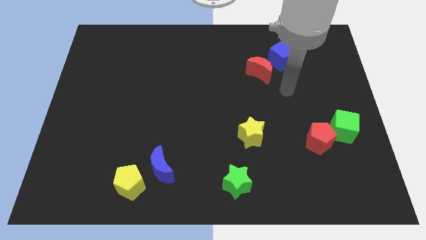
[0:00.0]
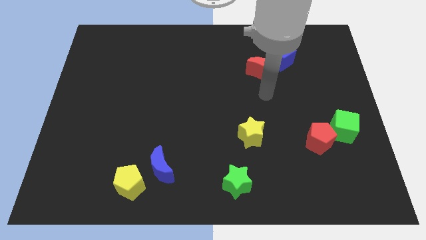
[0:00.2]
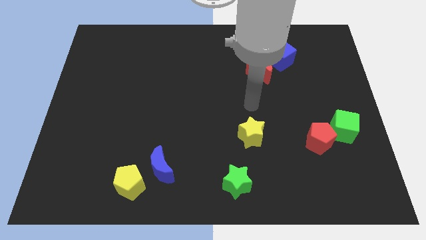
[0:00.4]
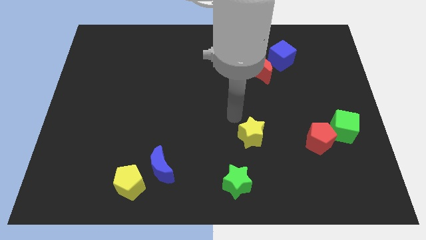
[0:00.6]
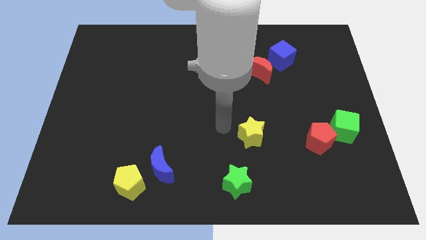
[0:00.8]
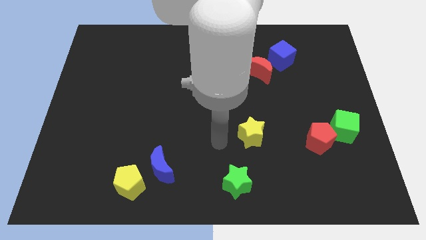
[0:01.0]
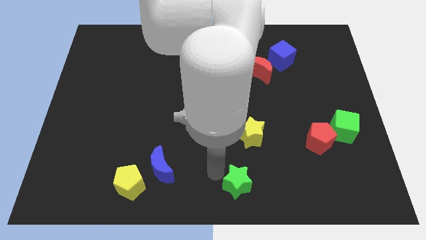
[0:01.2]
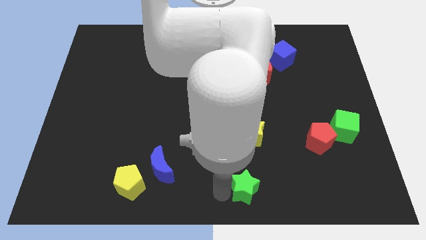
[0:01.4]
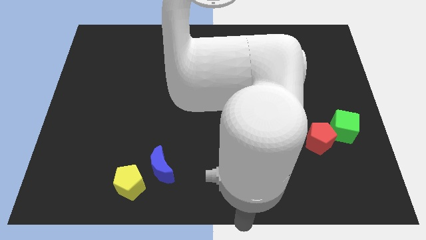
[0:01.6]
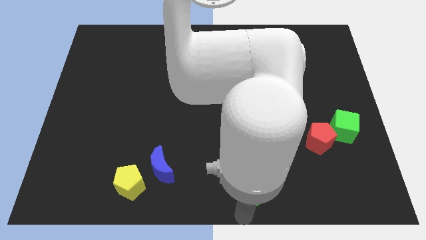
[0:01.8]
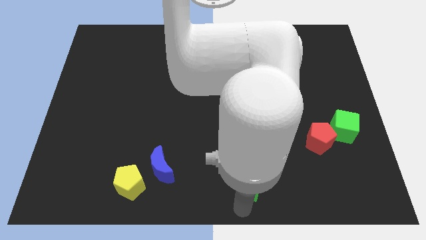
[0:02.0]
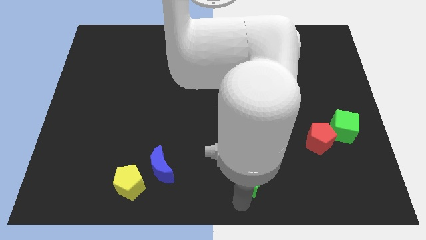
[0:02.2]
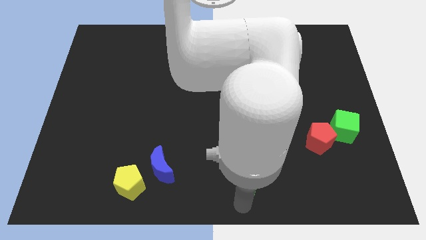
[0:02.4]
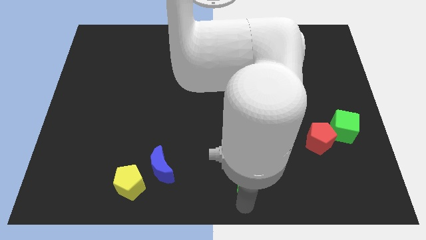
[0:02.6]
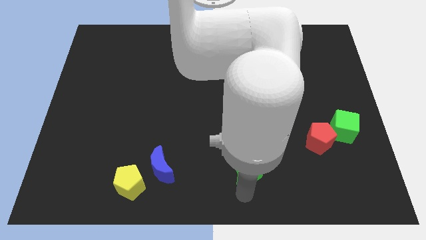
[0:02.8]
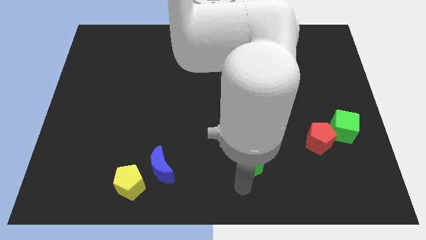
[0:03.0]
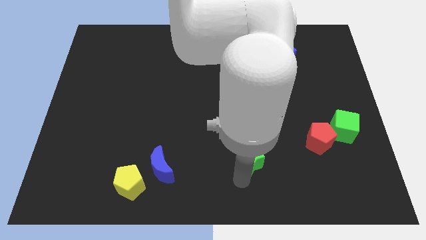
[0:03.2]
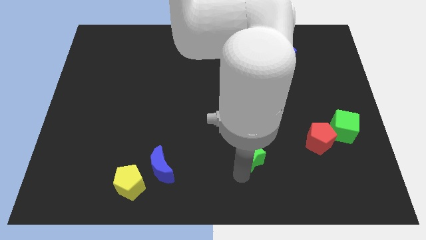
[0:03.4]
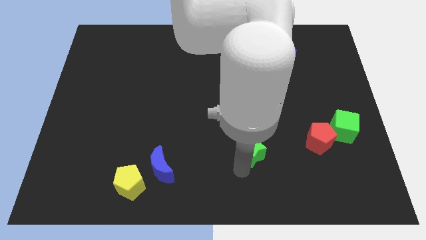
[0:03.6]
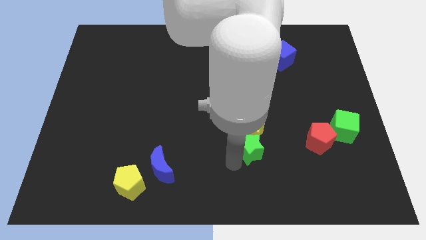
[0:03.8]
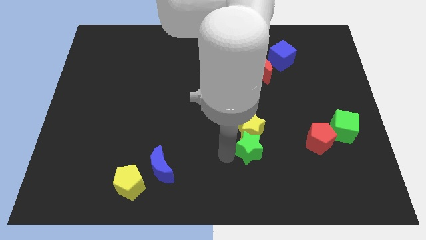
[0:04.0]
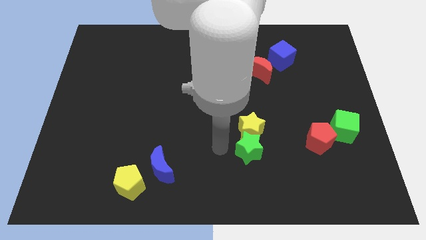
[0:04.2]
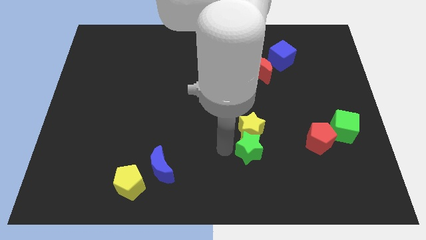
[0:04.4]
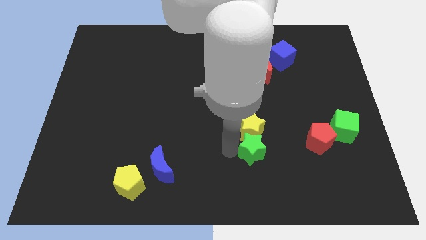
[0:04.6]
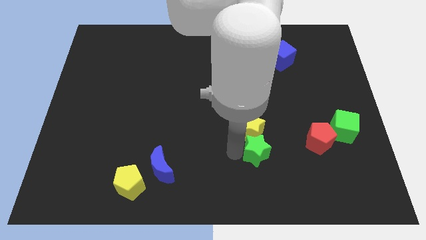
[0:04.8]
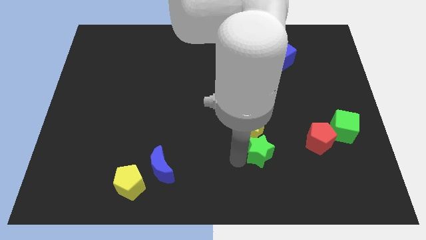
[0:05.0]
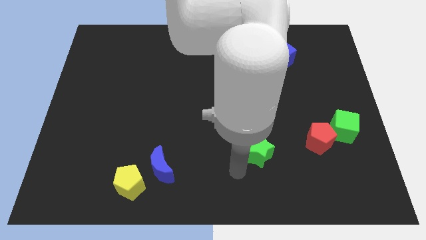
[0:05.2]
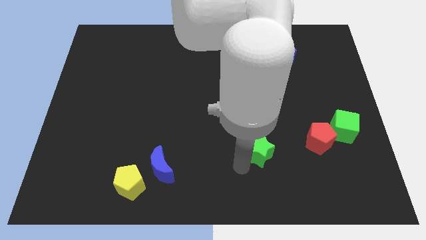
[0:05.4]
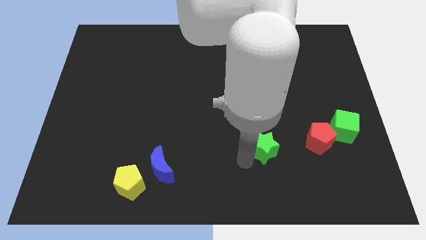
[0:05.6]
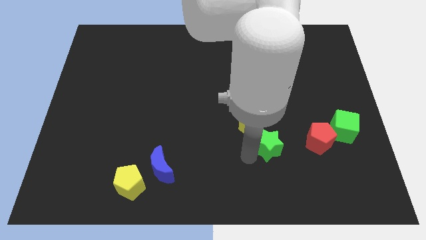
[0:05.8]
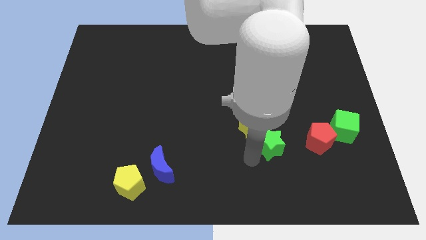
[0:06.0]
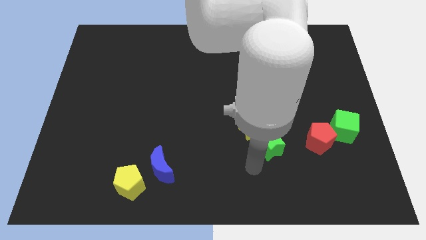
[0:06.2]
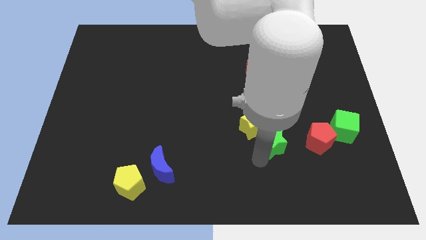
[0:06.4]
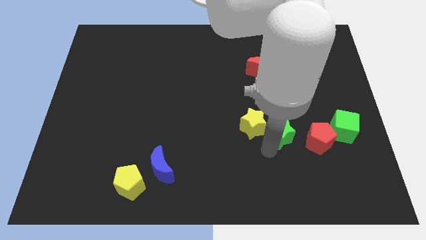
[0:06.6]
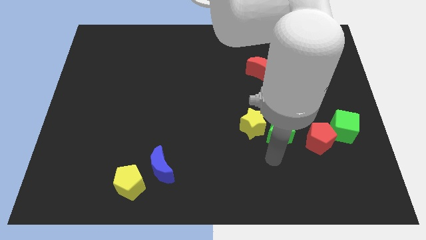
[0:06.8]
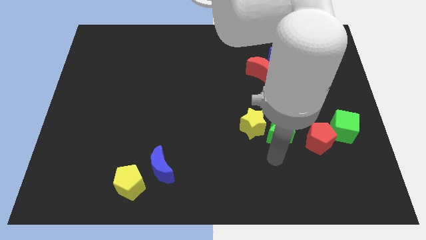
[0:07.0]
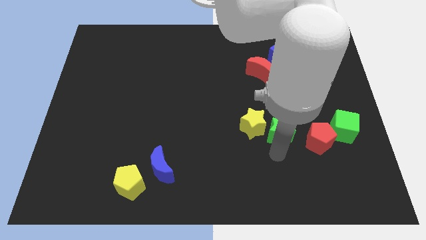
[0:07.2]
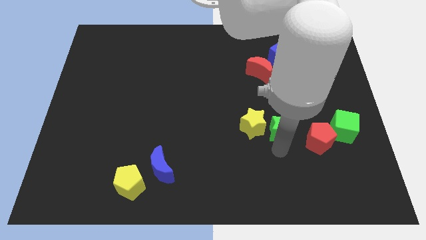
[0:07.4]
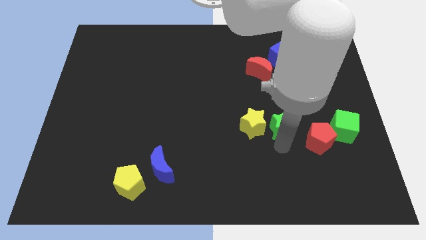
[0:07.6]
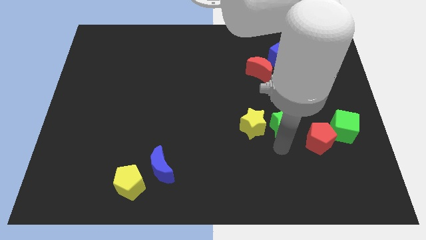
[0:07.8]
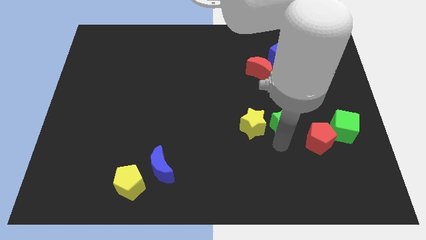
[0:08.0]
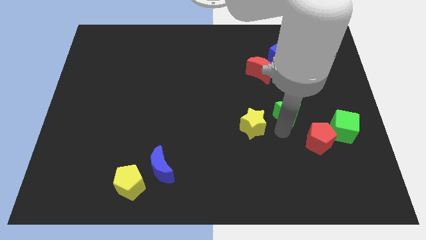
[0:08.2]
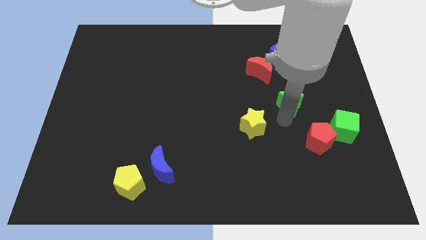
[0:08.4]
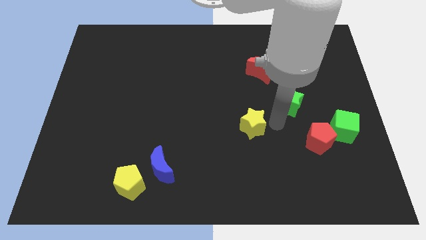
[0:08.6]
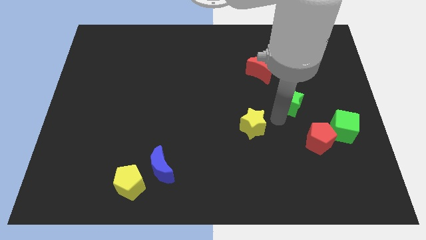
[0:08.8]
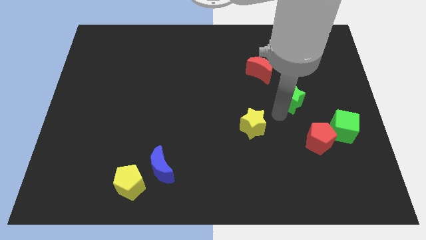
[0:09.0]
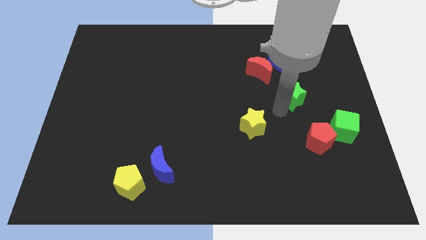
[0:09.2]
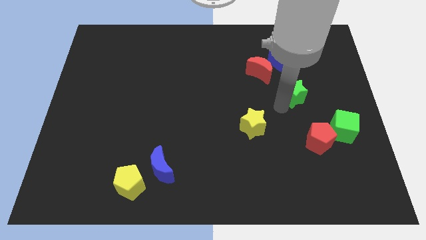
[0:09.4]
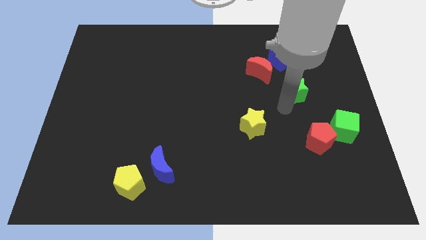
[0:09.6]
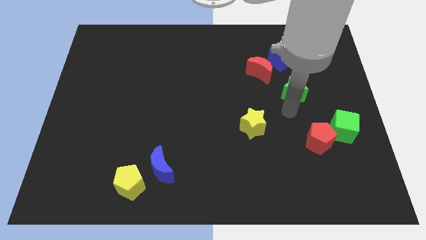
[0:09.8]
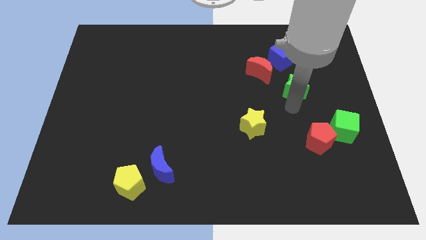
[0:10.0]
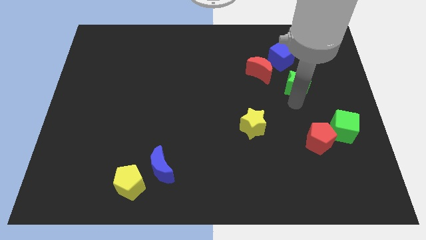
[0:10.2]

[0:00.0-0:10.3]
push the green star to the right of the red moon

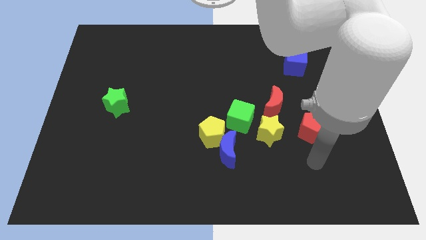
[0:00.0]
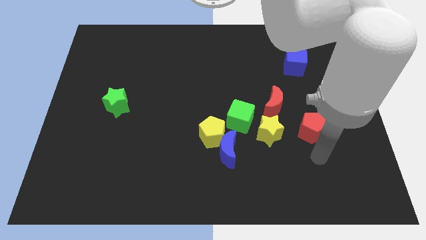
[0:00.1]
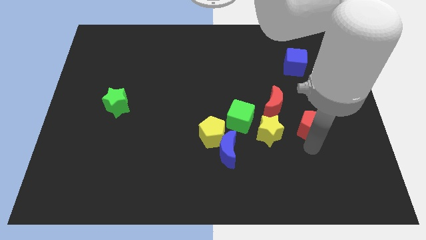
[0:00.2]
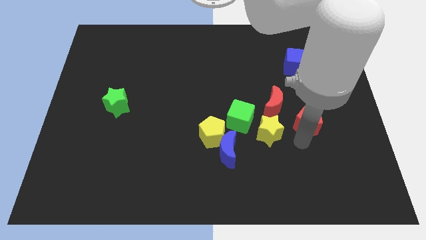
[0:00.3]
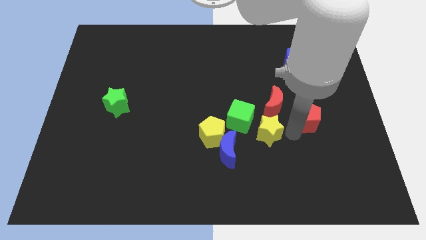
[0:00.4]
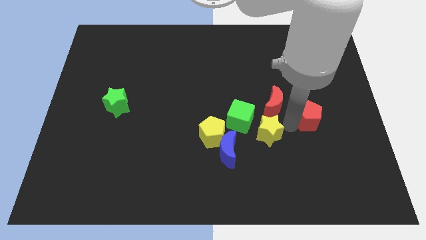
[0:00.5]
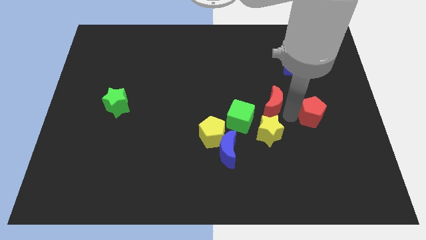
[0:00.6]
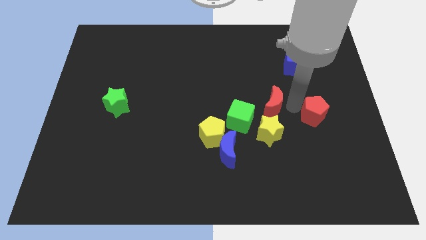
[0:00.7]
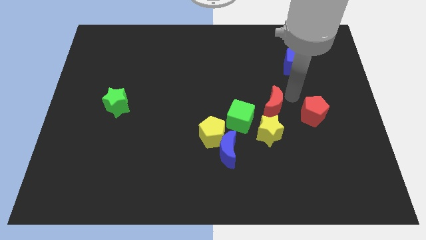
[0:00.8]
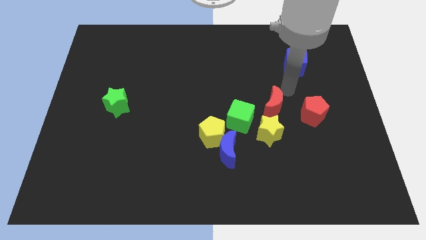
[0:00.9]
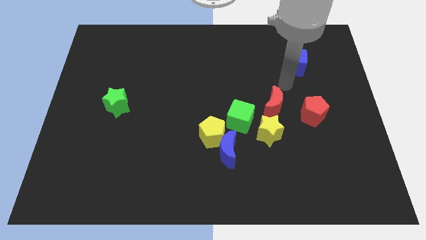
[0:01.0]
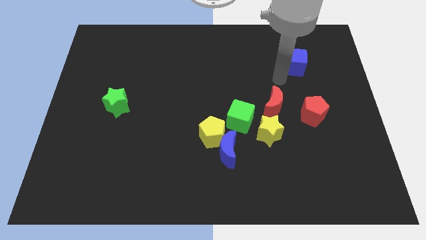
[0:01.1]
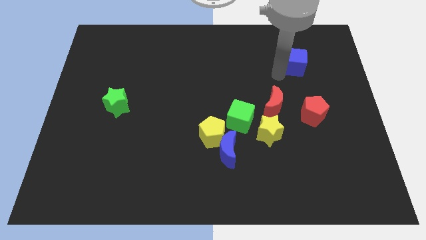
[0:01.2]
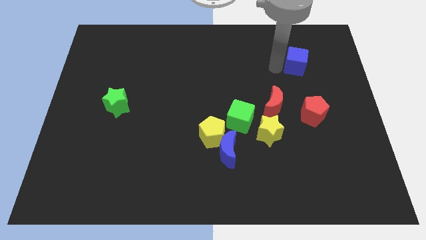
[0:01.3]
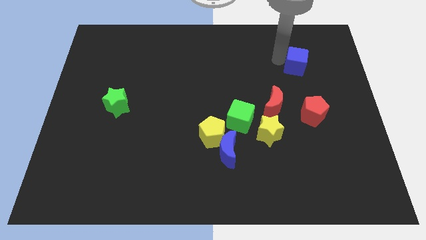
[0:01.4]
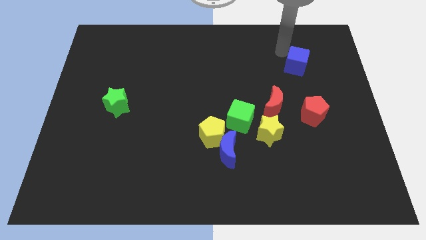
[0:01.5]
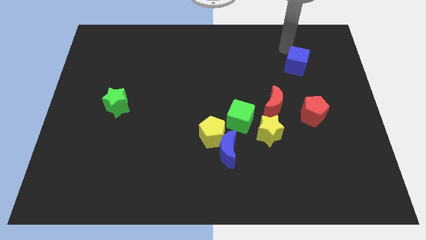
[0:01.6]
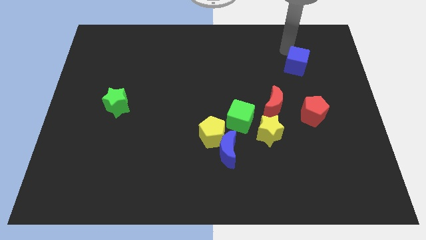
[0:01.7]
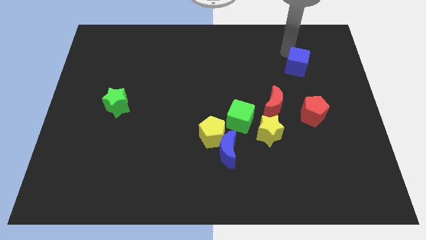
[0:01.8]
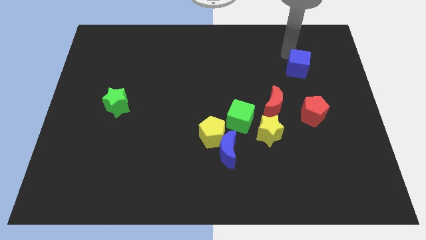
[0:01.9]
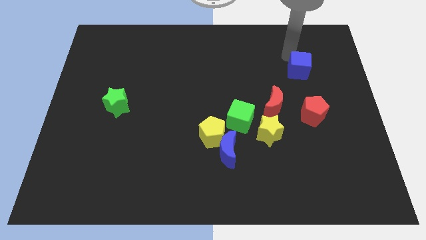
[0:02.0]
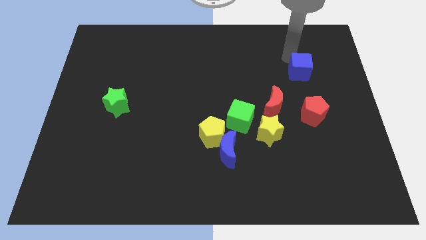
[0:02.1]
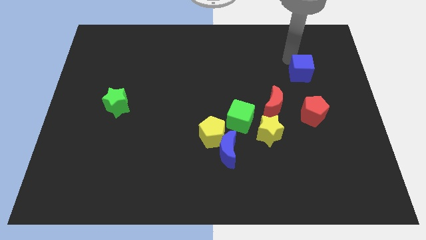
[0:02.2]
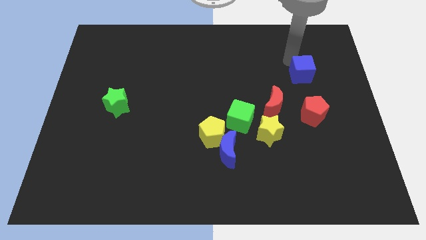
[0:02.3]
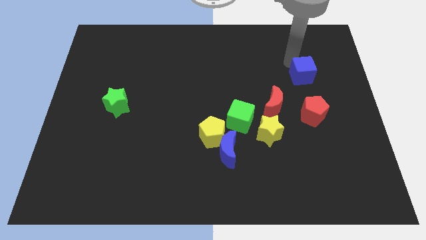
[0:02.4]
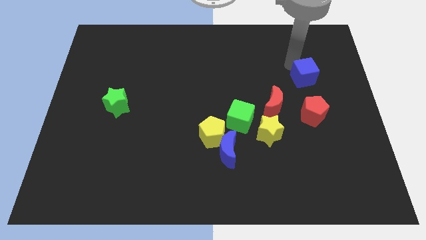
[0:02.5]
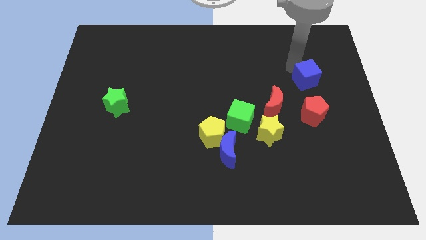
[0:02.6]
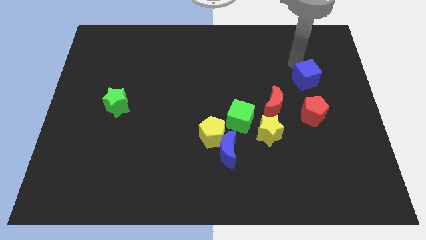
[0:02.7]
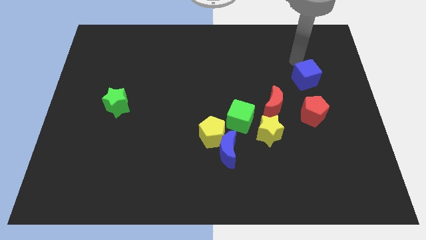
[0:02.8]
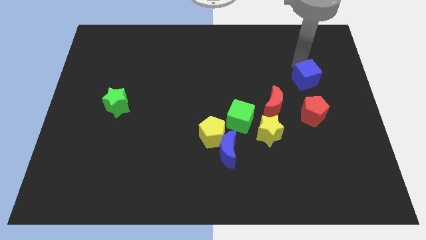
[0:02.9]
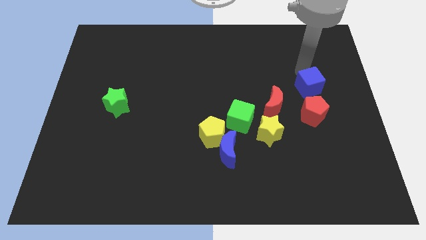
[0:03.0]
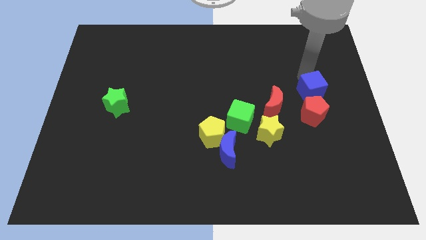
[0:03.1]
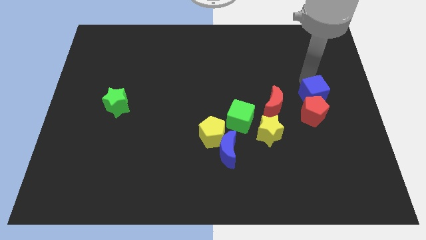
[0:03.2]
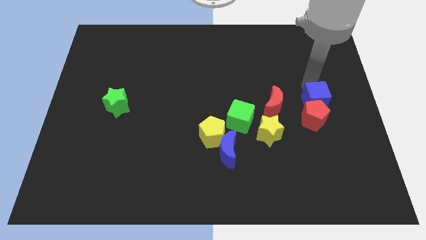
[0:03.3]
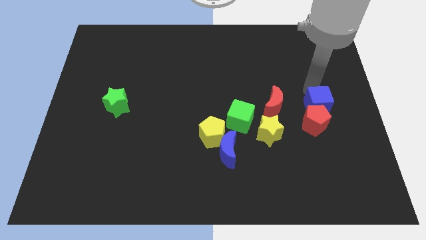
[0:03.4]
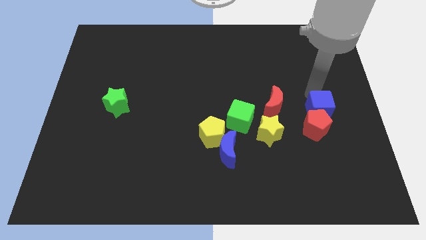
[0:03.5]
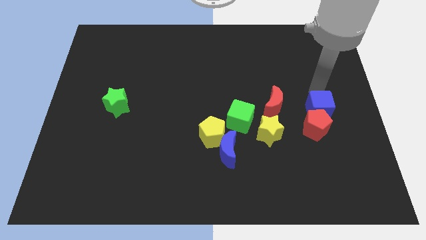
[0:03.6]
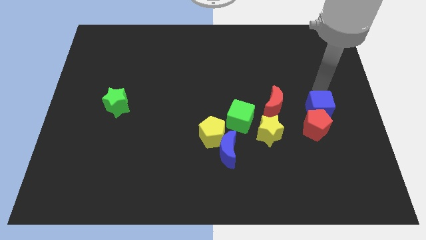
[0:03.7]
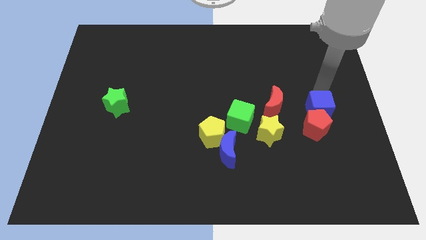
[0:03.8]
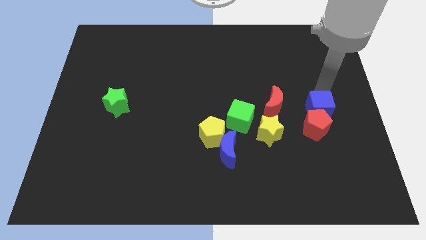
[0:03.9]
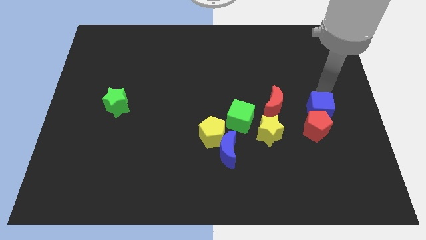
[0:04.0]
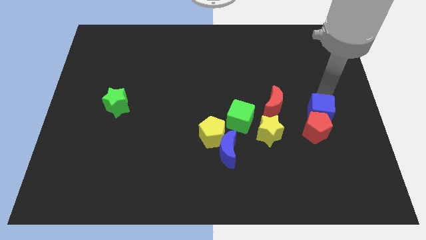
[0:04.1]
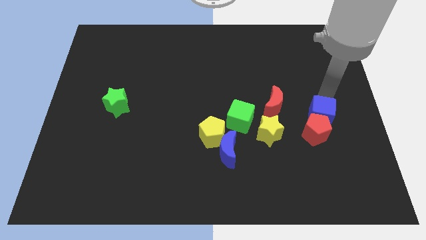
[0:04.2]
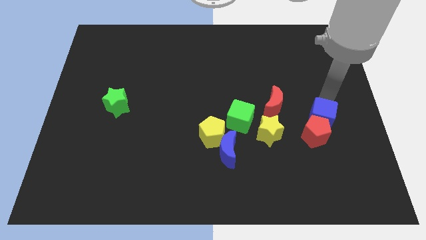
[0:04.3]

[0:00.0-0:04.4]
slide the blue cube to the right side of the yellow star
